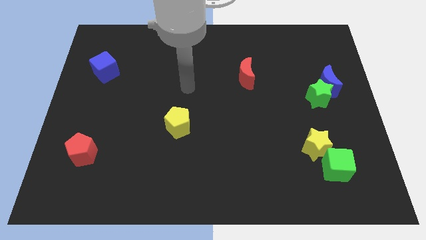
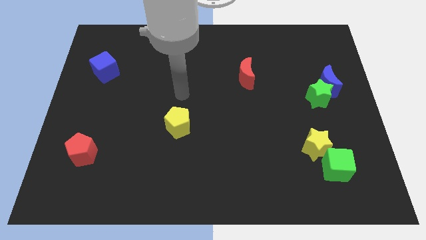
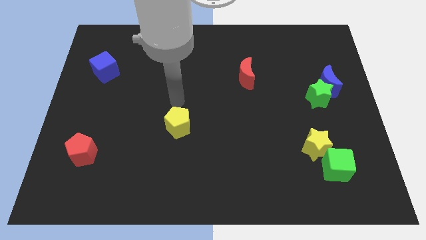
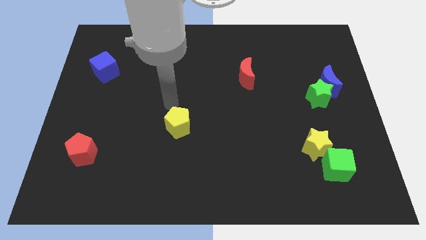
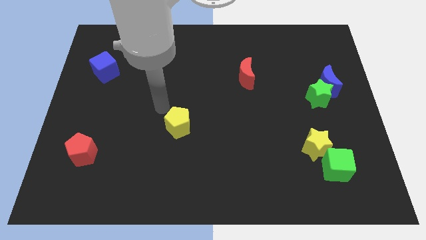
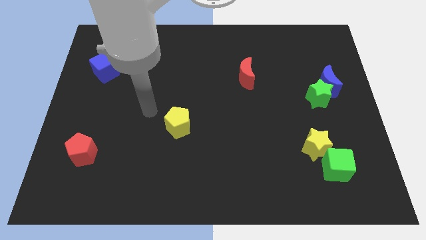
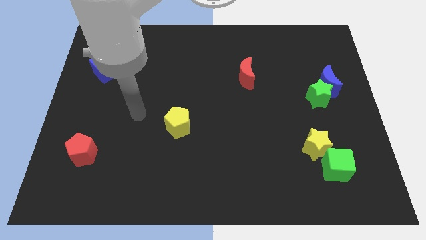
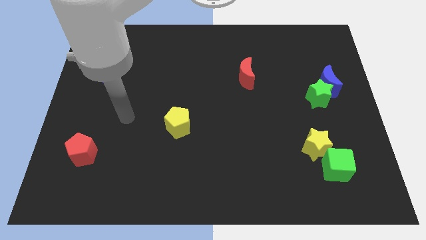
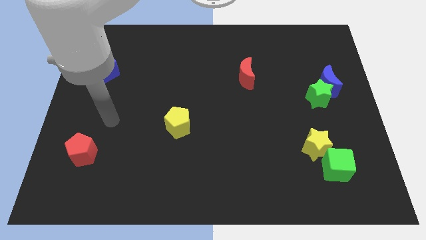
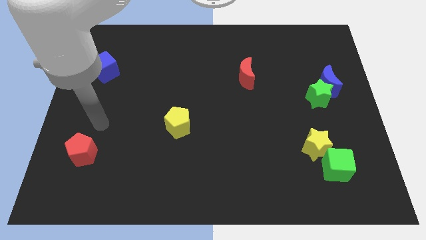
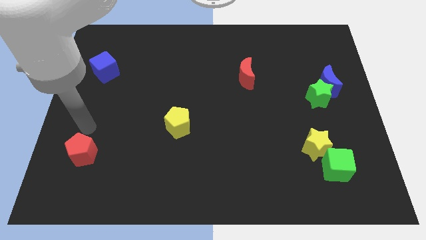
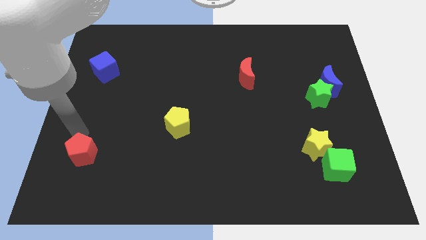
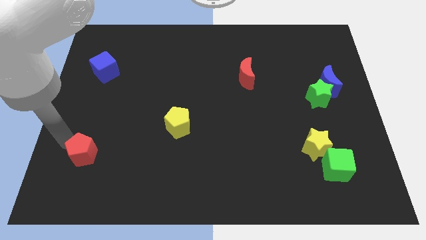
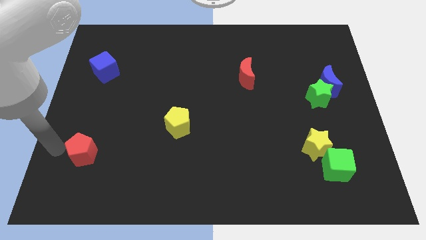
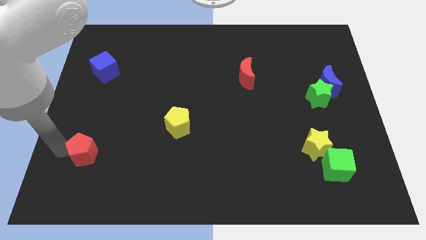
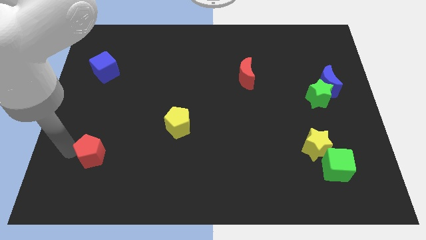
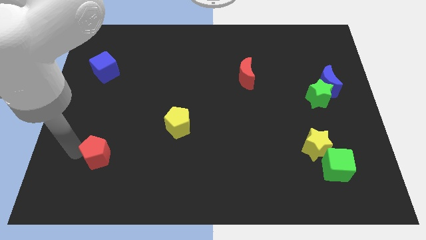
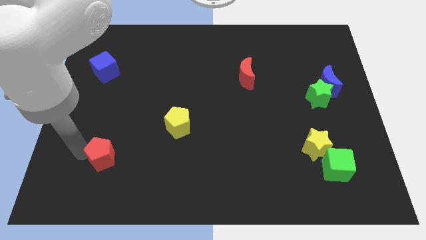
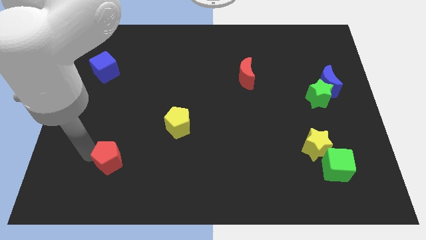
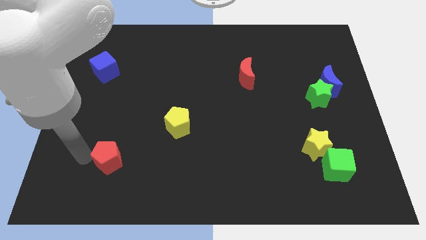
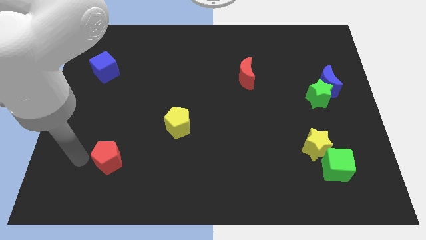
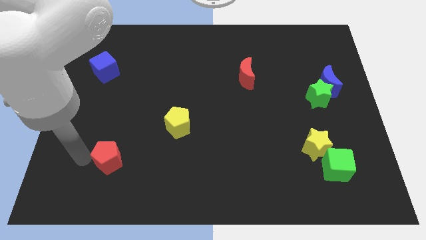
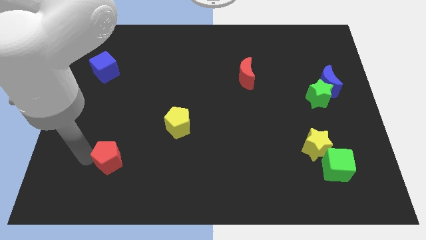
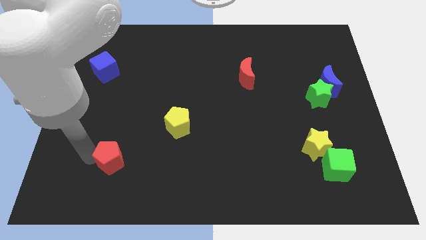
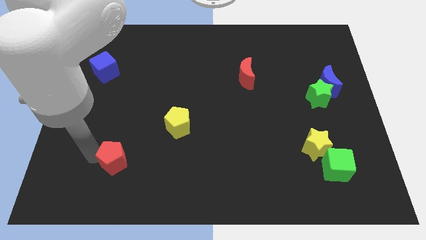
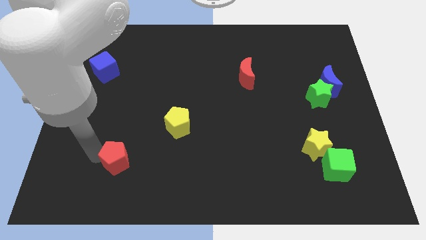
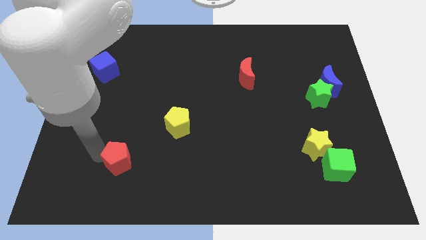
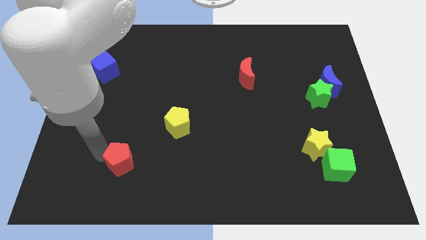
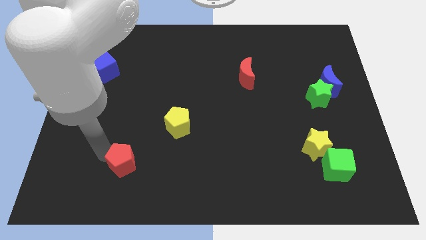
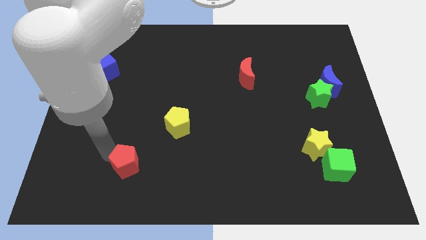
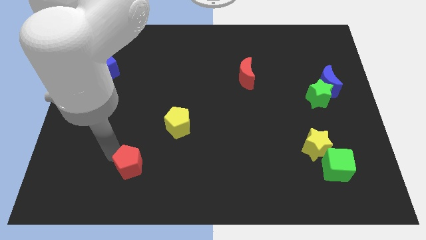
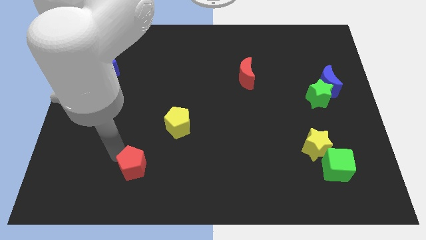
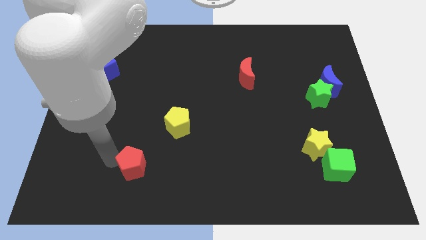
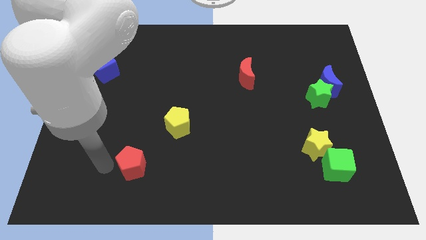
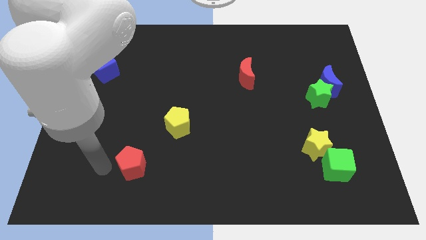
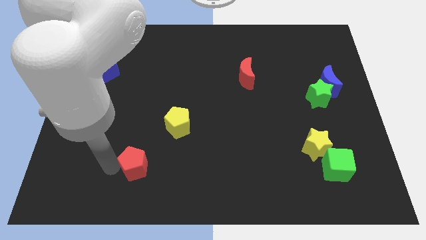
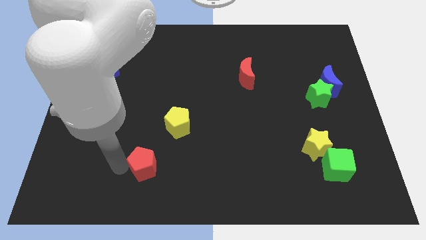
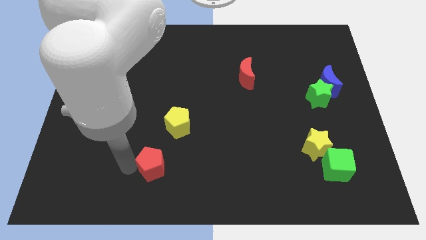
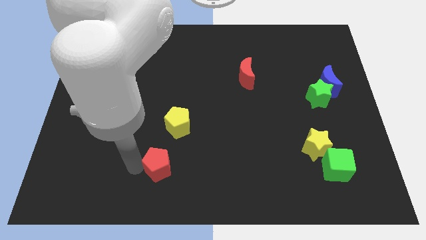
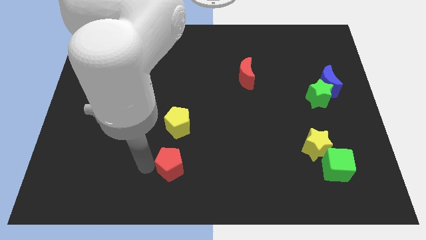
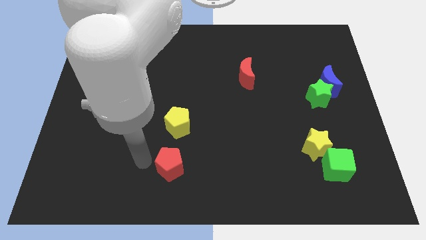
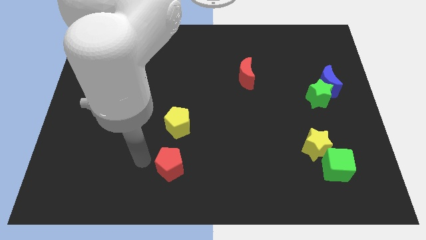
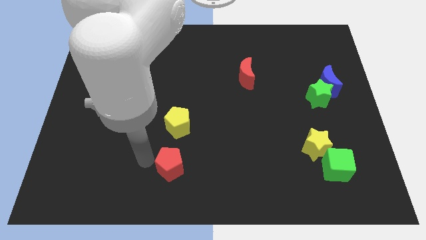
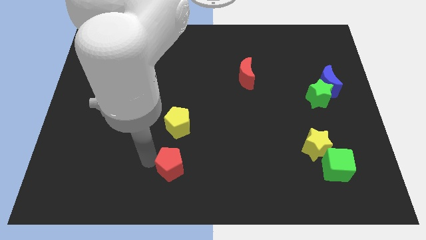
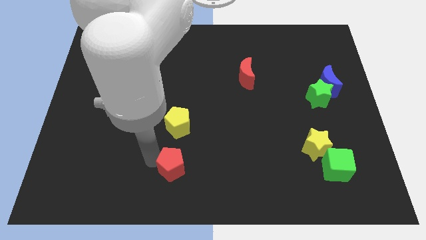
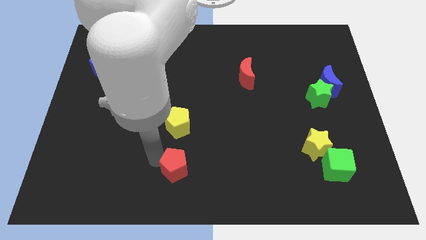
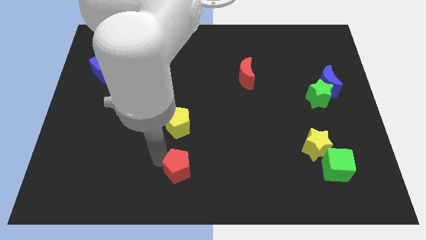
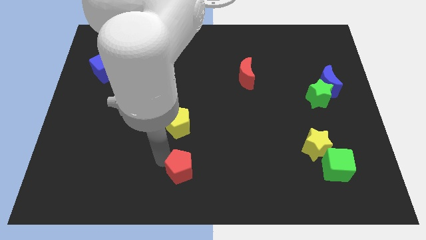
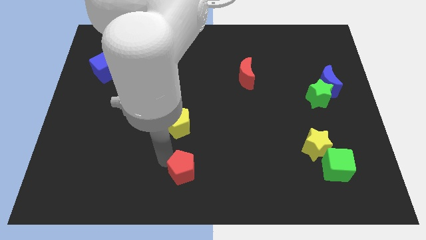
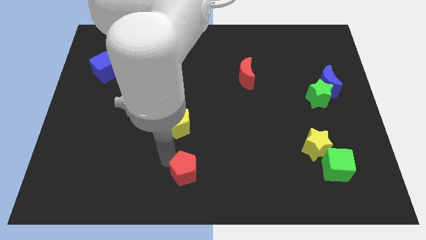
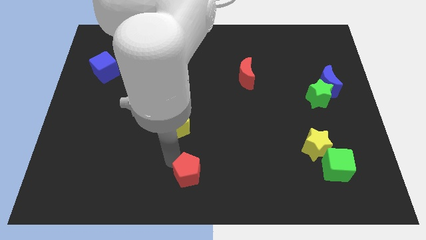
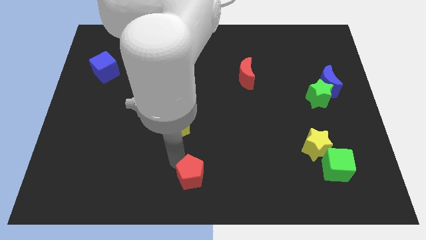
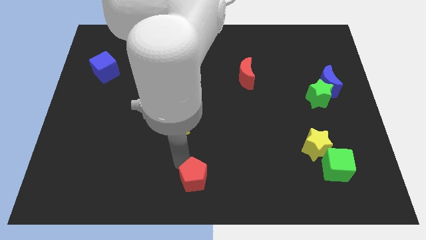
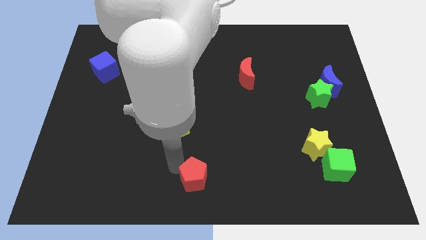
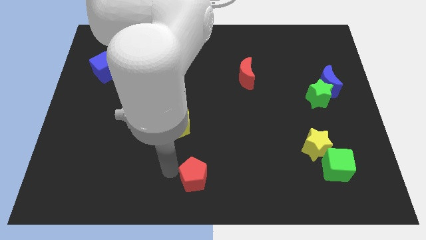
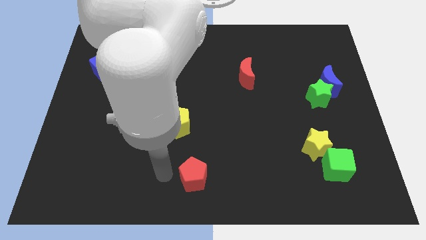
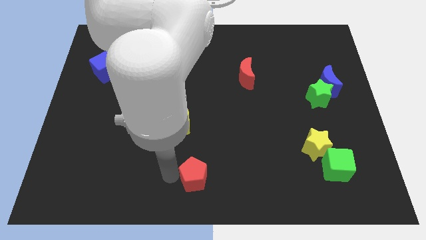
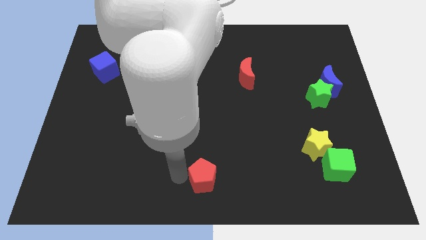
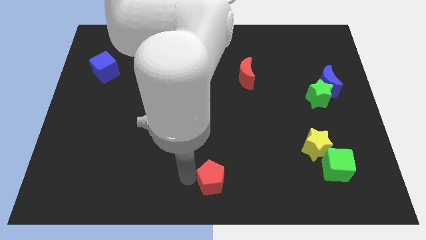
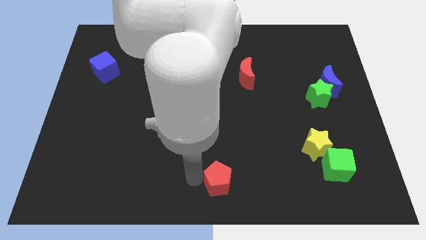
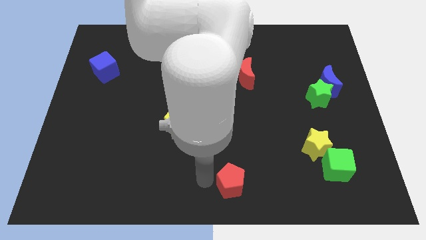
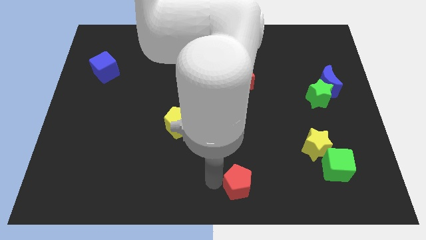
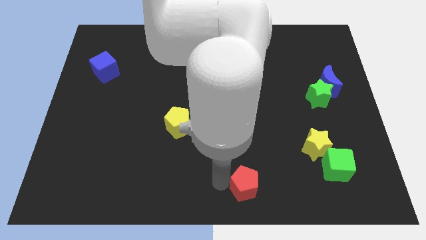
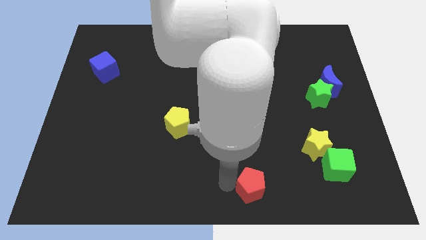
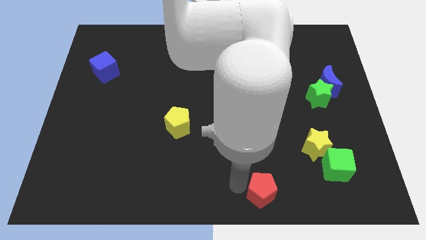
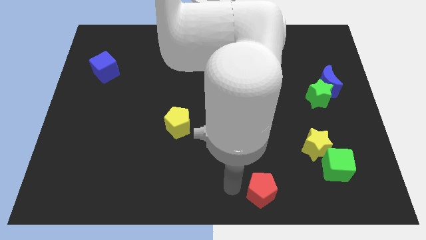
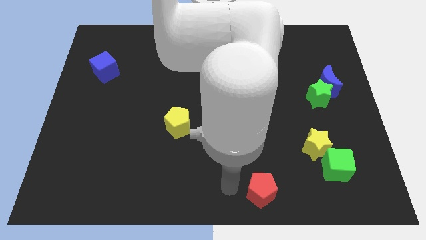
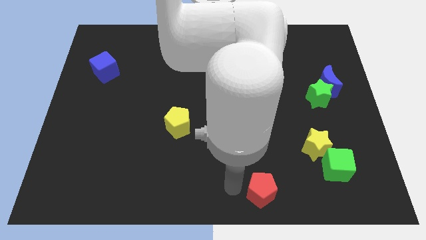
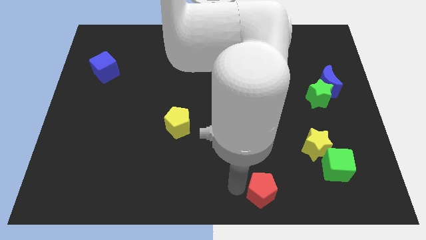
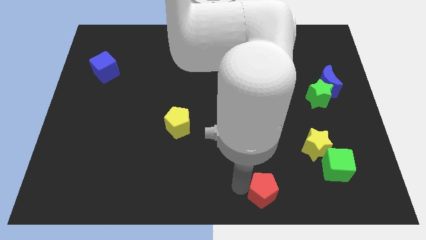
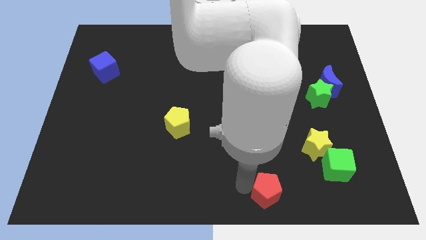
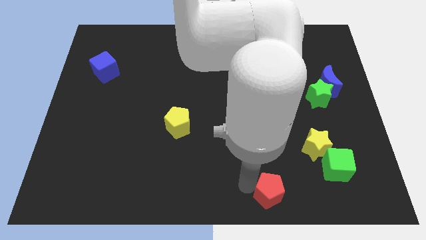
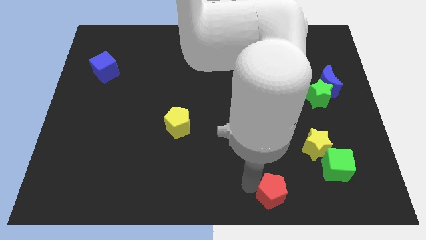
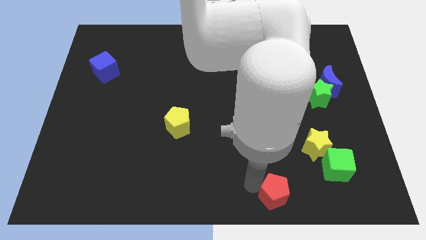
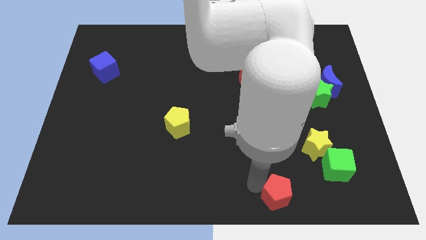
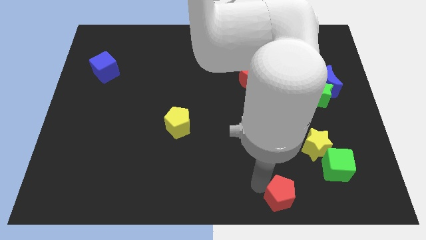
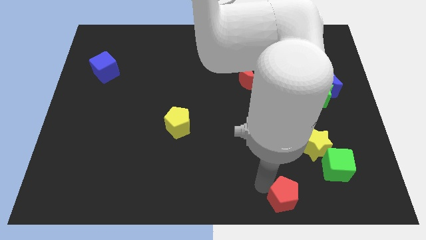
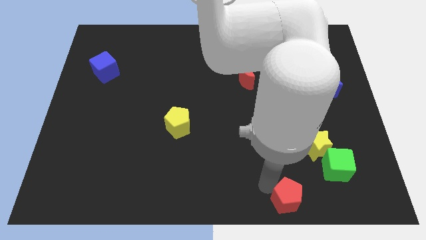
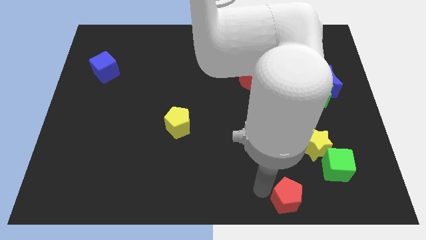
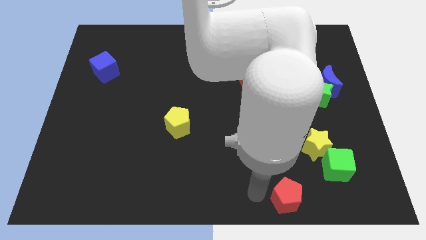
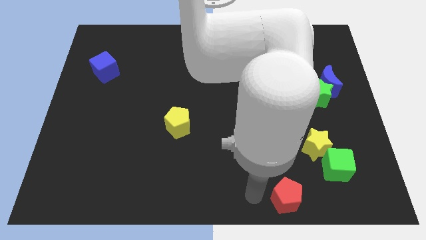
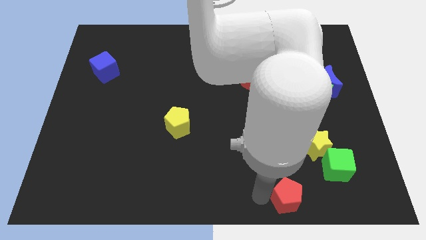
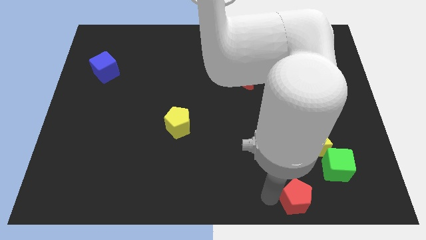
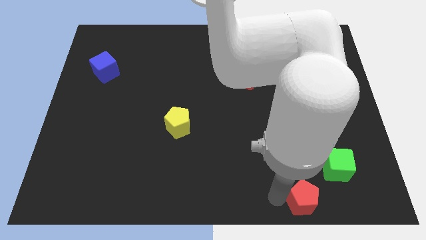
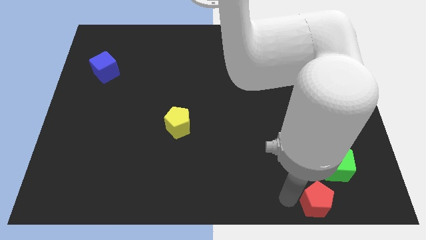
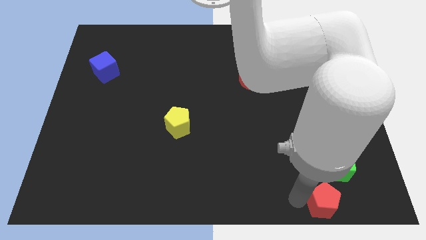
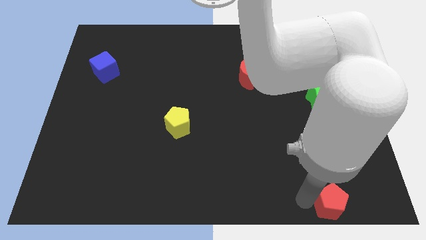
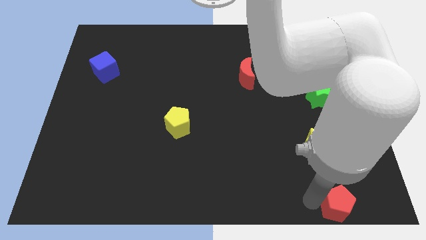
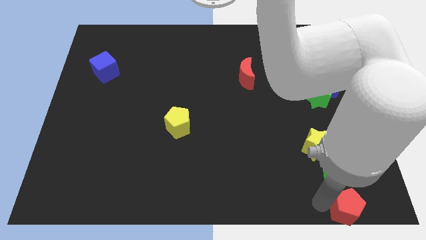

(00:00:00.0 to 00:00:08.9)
put the red pentagon to the bottom right
